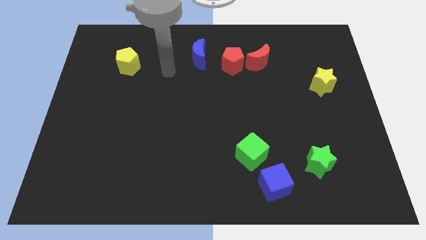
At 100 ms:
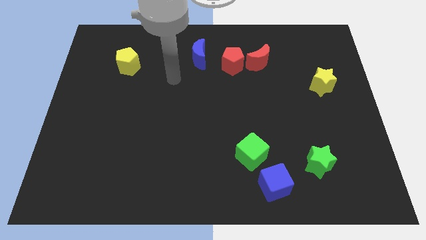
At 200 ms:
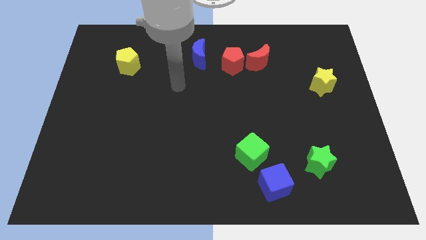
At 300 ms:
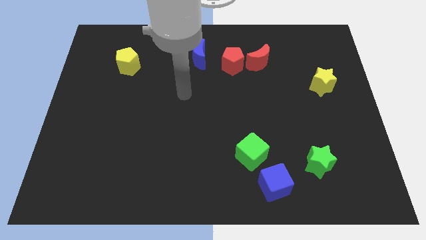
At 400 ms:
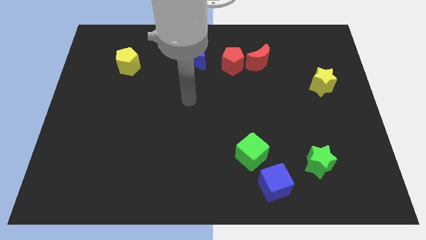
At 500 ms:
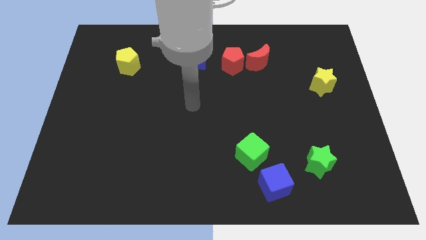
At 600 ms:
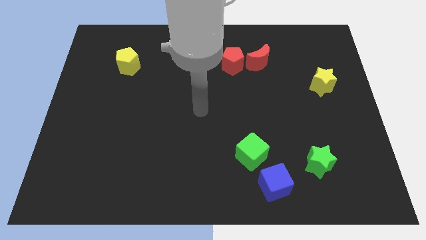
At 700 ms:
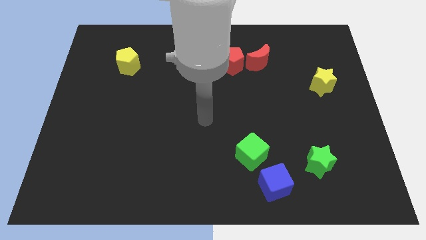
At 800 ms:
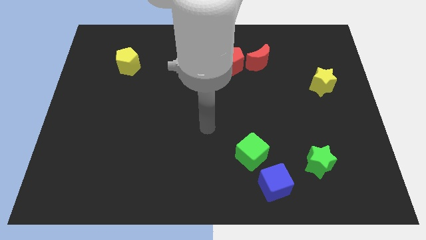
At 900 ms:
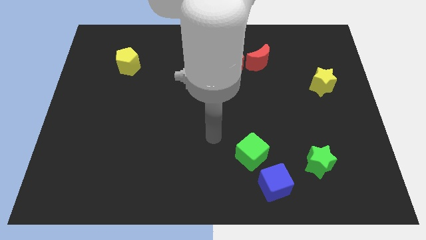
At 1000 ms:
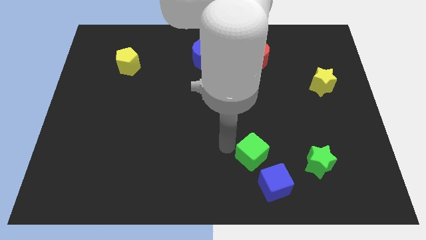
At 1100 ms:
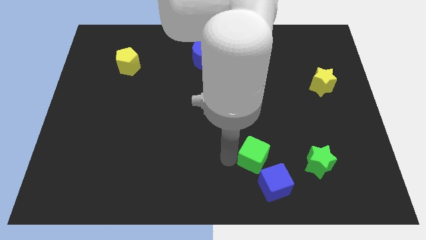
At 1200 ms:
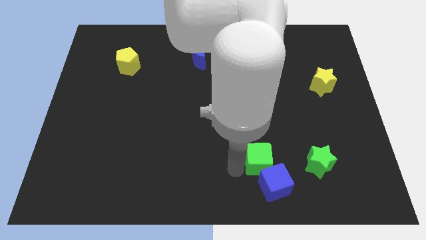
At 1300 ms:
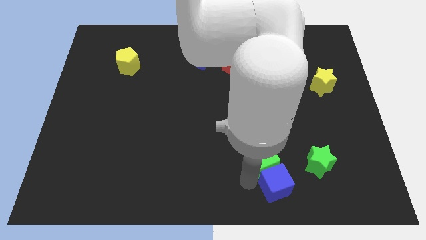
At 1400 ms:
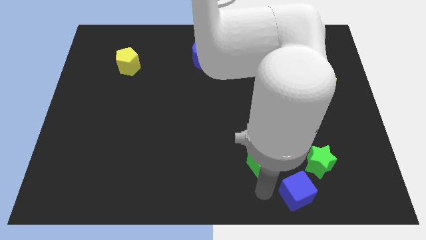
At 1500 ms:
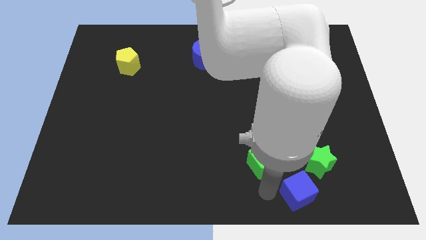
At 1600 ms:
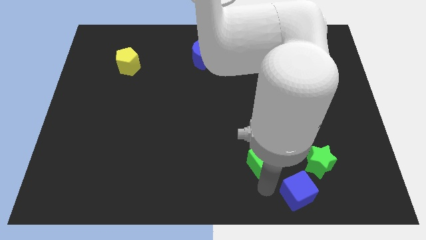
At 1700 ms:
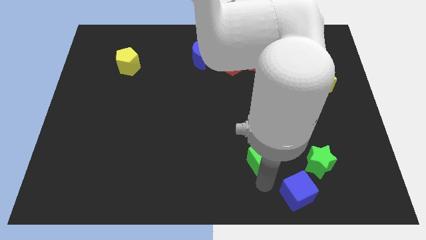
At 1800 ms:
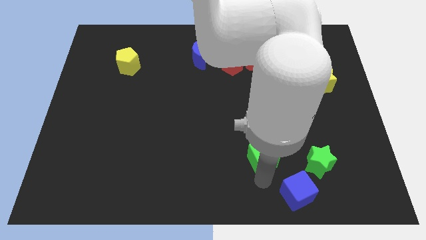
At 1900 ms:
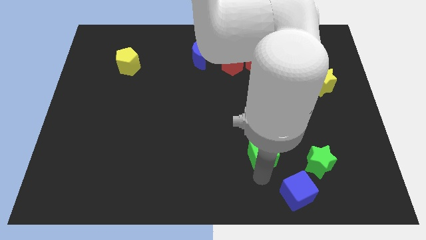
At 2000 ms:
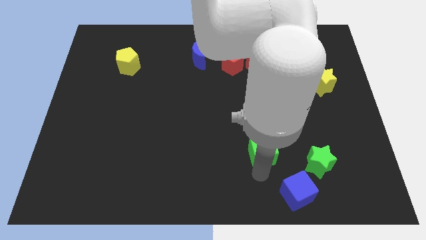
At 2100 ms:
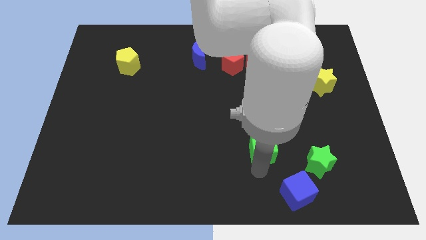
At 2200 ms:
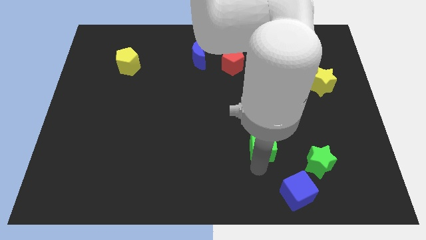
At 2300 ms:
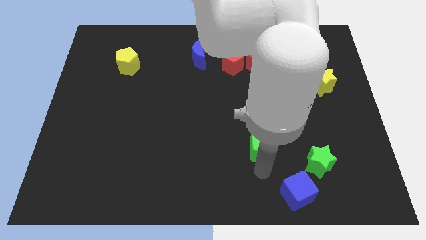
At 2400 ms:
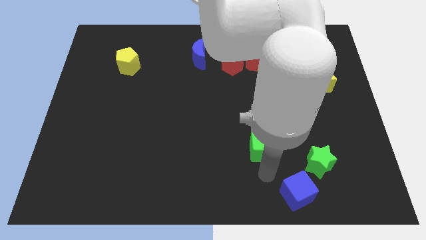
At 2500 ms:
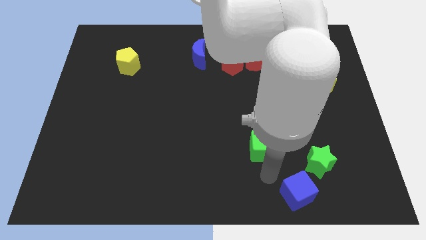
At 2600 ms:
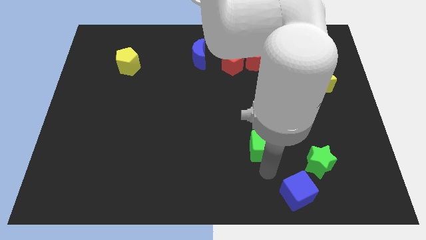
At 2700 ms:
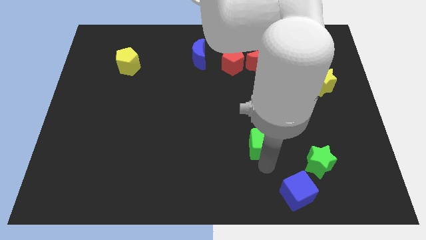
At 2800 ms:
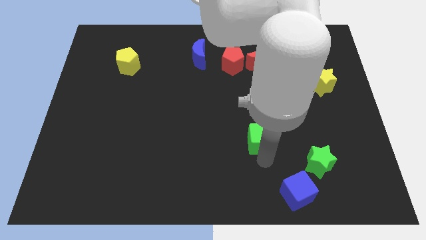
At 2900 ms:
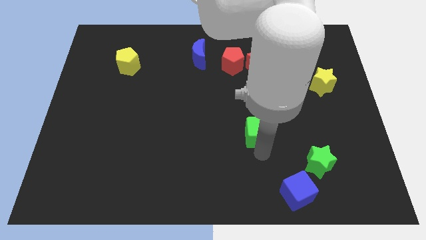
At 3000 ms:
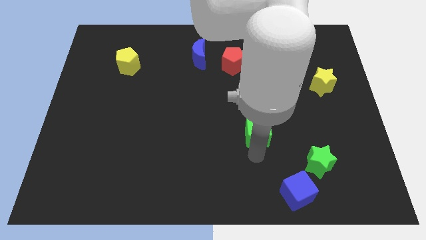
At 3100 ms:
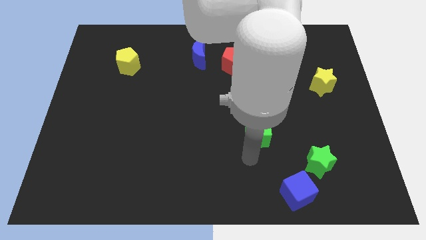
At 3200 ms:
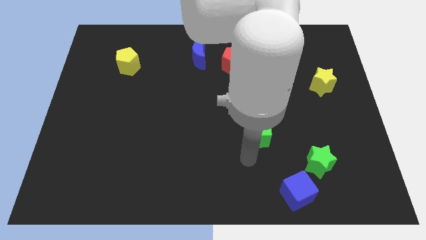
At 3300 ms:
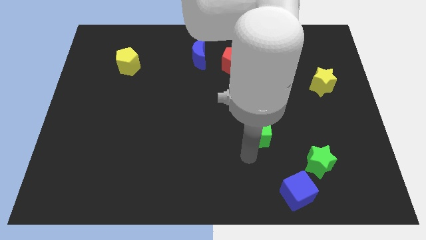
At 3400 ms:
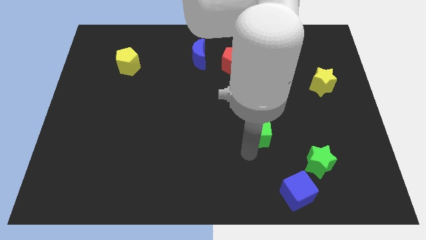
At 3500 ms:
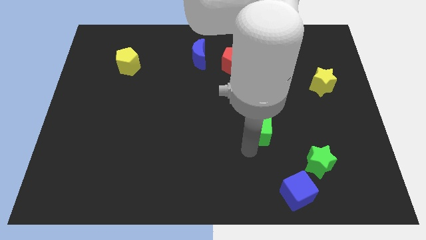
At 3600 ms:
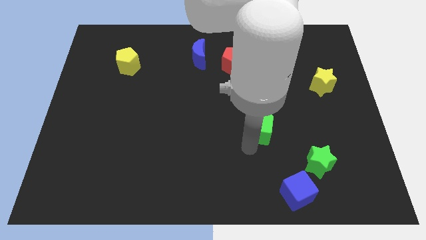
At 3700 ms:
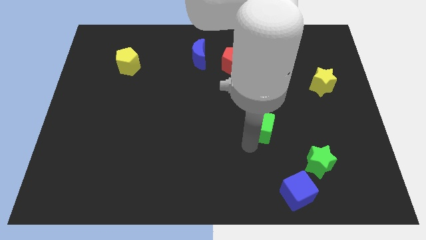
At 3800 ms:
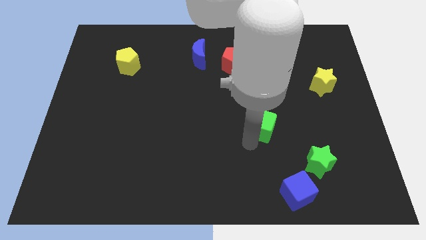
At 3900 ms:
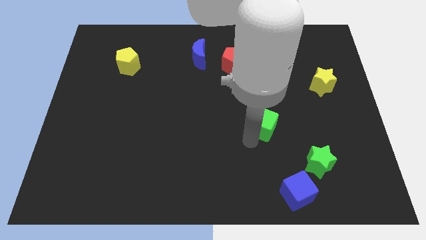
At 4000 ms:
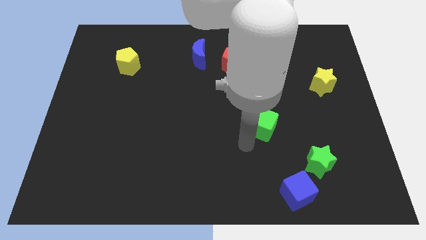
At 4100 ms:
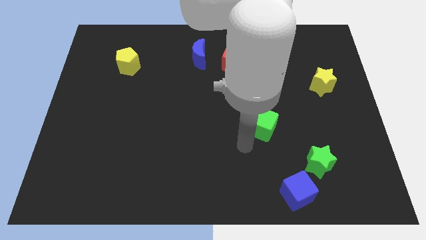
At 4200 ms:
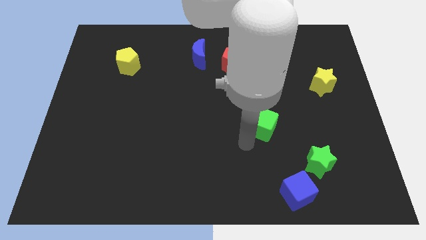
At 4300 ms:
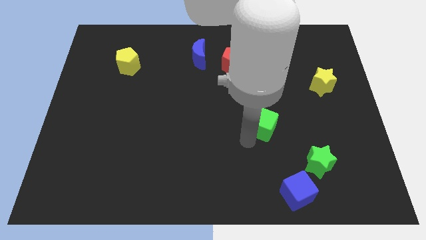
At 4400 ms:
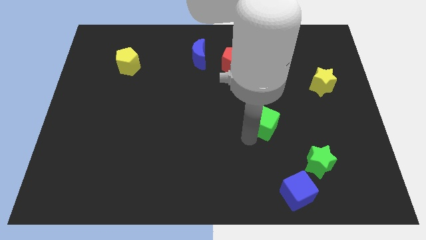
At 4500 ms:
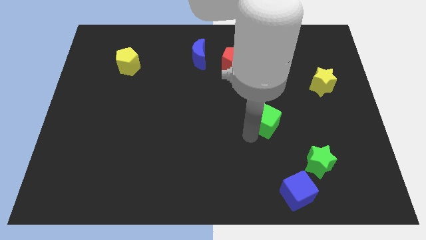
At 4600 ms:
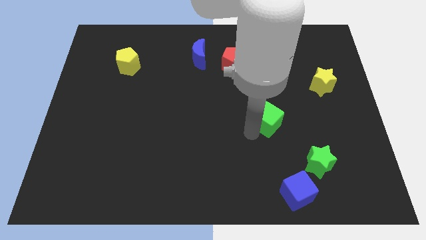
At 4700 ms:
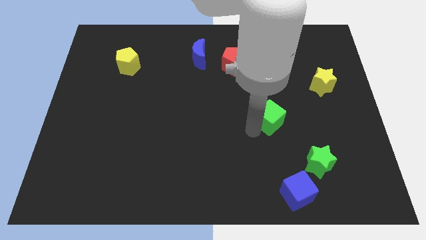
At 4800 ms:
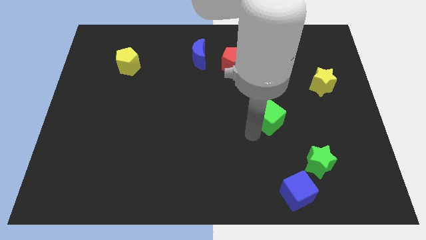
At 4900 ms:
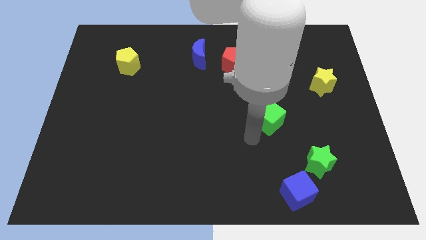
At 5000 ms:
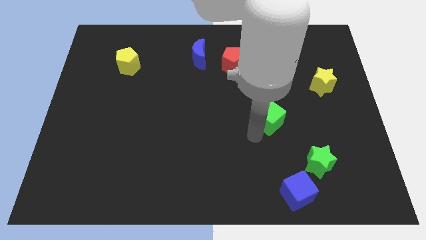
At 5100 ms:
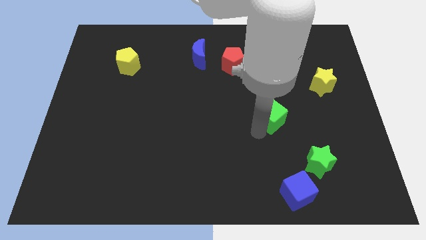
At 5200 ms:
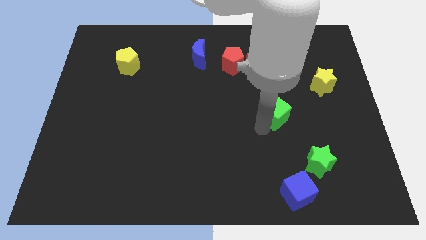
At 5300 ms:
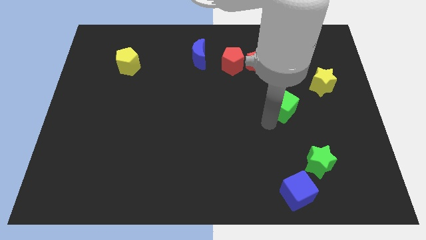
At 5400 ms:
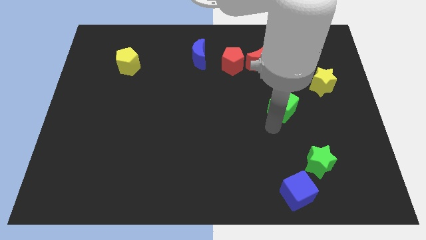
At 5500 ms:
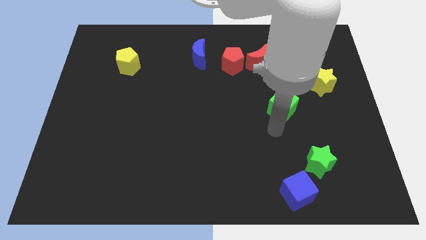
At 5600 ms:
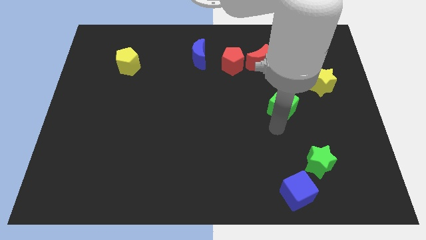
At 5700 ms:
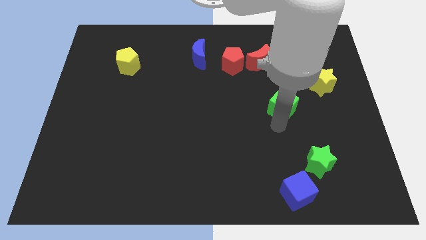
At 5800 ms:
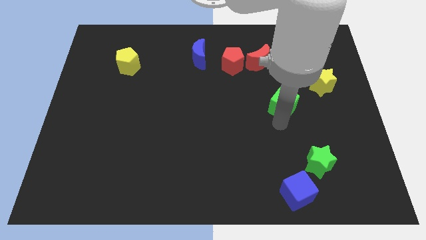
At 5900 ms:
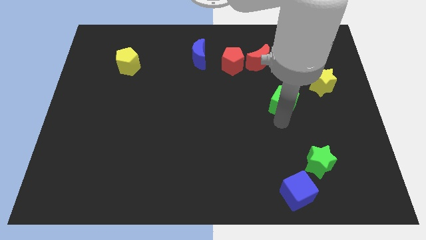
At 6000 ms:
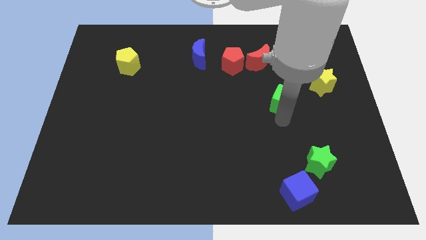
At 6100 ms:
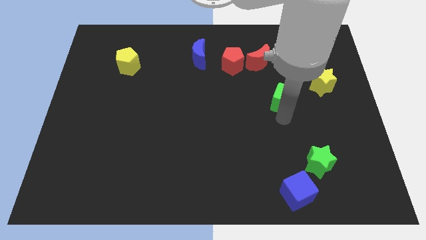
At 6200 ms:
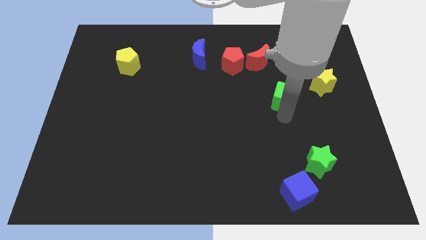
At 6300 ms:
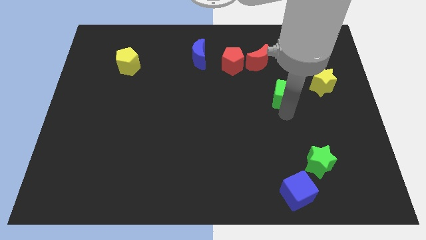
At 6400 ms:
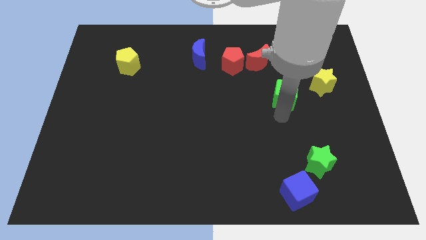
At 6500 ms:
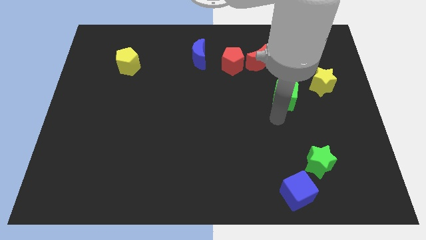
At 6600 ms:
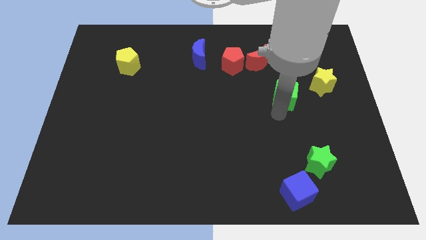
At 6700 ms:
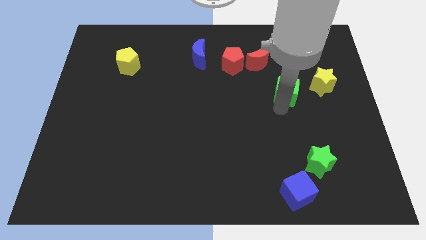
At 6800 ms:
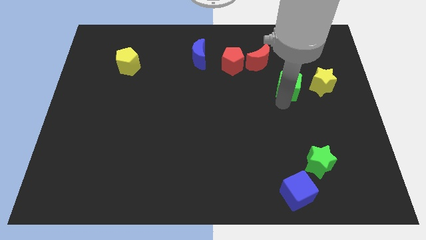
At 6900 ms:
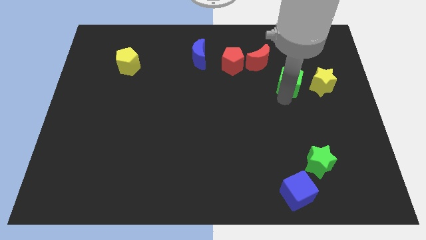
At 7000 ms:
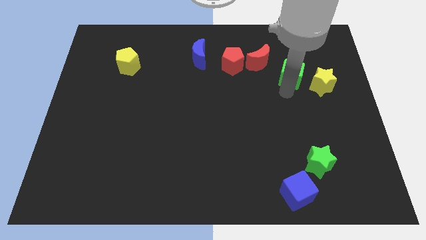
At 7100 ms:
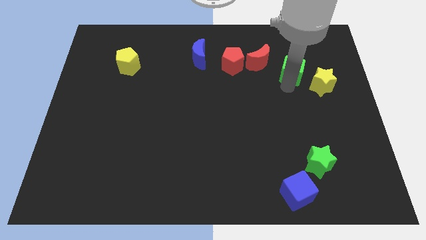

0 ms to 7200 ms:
push the green cube right of the red moon
